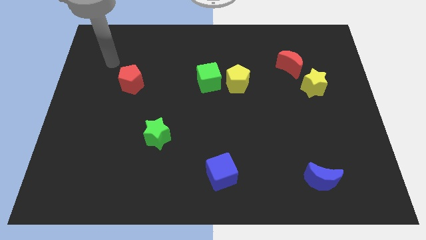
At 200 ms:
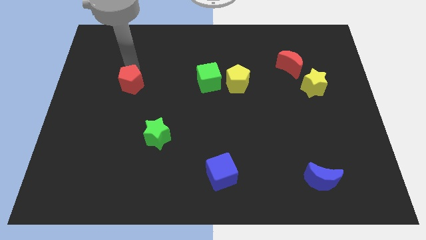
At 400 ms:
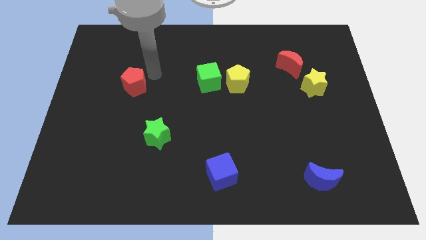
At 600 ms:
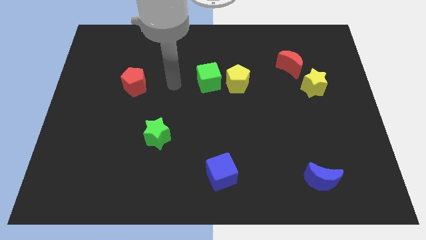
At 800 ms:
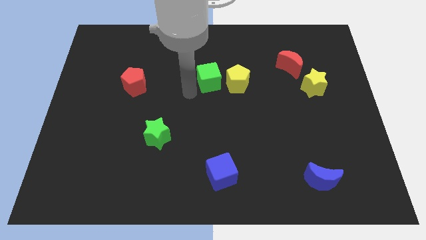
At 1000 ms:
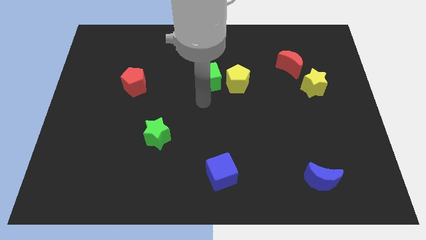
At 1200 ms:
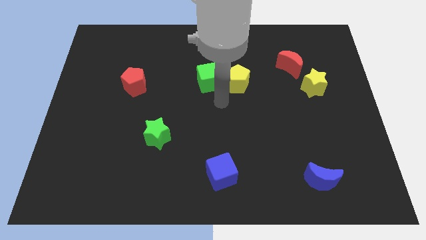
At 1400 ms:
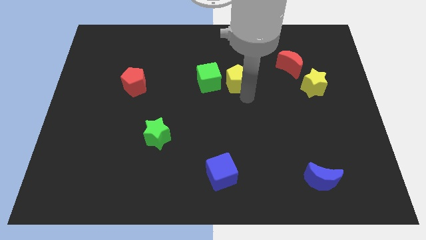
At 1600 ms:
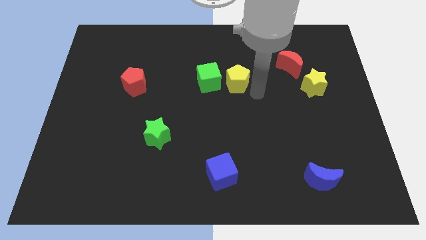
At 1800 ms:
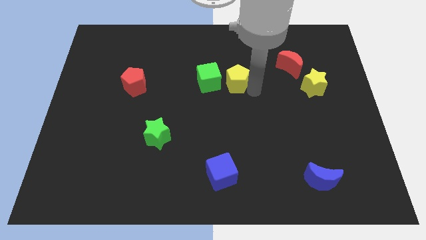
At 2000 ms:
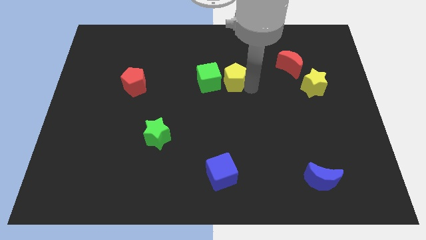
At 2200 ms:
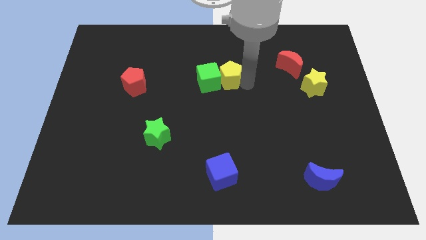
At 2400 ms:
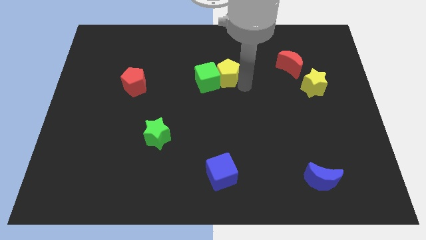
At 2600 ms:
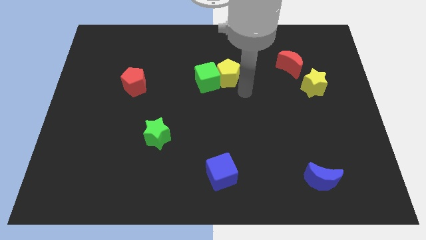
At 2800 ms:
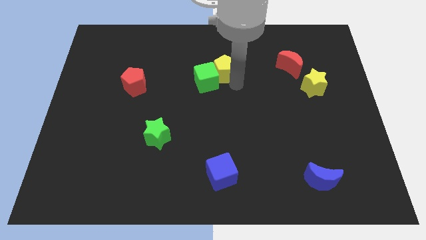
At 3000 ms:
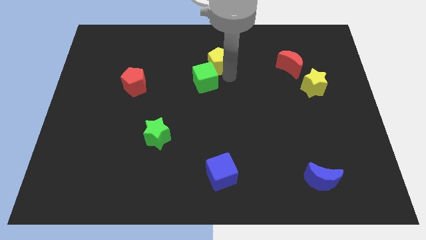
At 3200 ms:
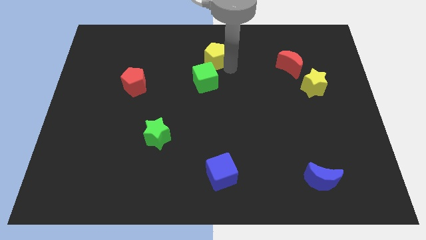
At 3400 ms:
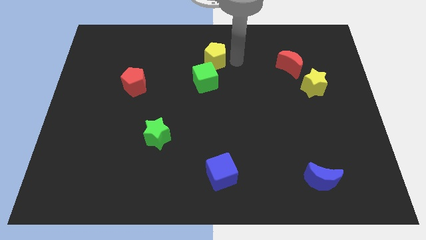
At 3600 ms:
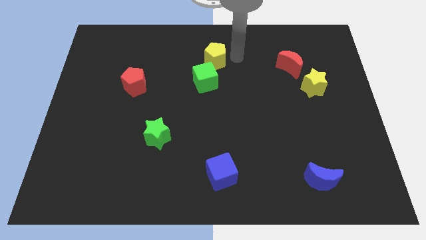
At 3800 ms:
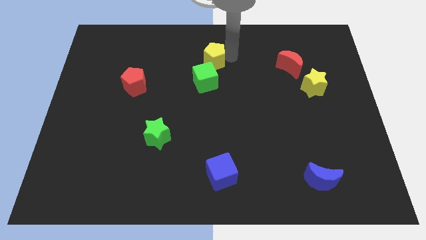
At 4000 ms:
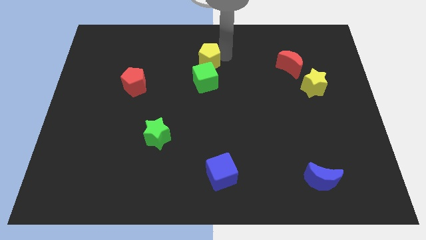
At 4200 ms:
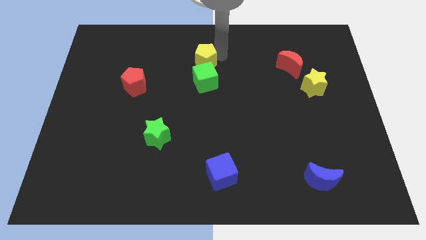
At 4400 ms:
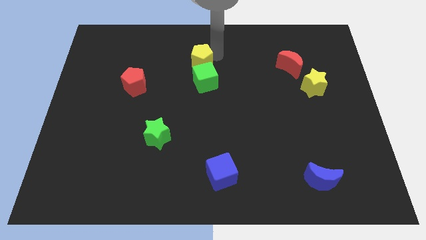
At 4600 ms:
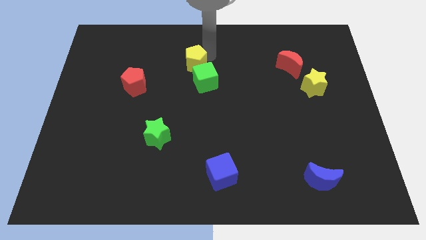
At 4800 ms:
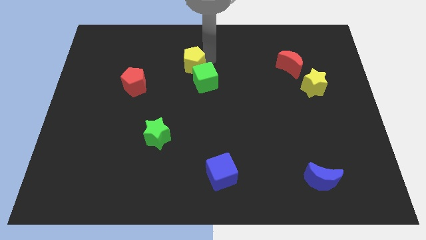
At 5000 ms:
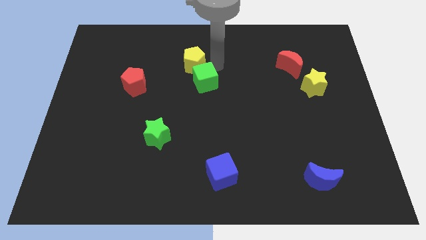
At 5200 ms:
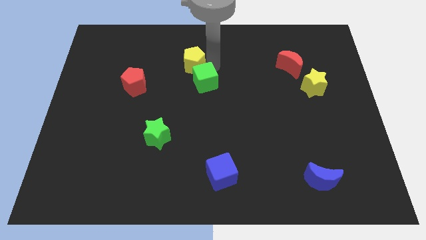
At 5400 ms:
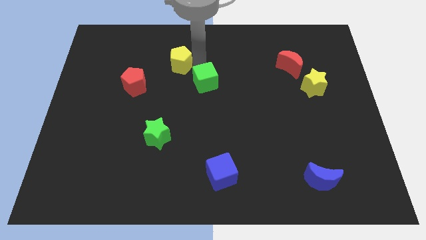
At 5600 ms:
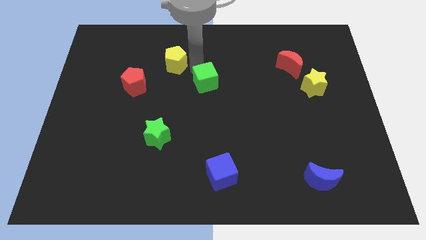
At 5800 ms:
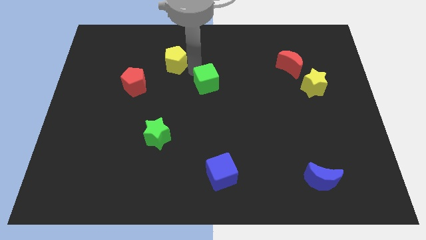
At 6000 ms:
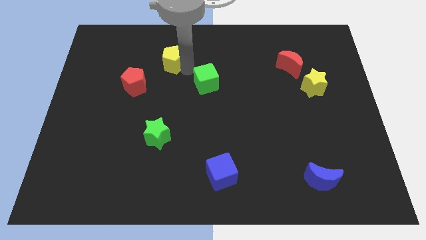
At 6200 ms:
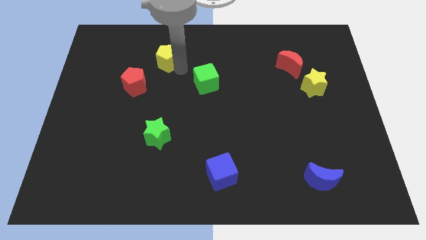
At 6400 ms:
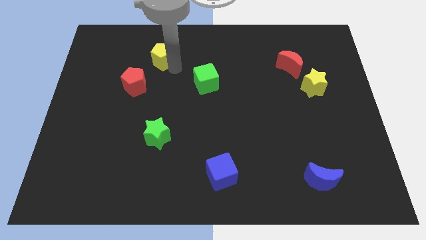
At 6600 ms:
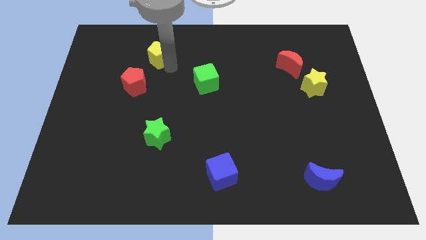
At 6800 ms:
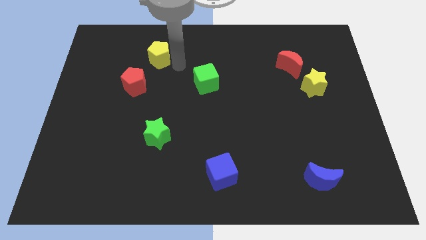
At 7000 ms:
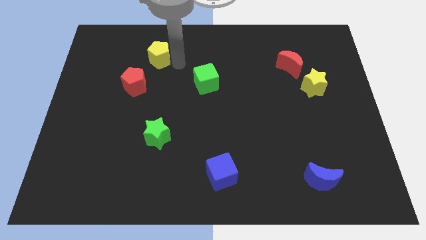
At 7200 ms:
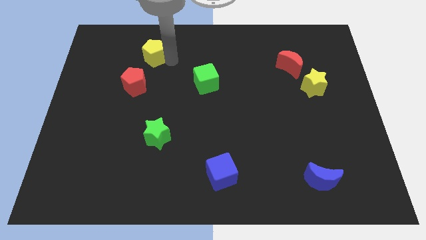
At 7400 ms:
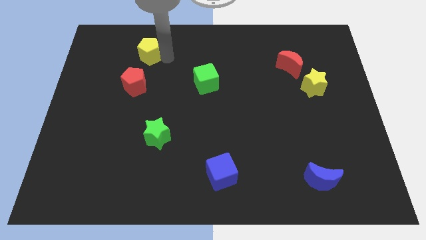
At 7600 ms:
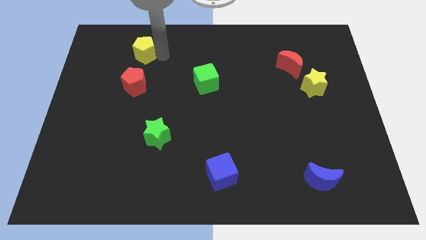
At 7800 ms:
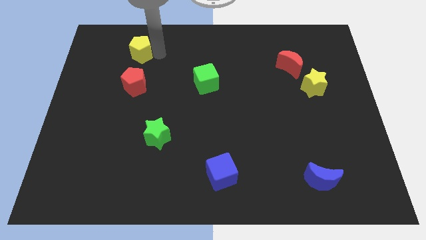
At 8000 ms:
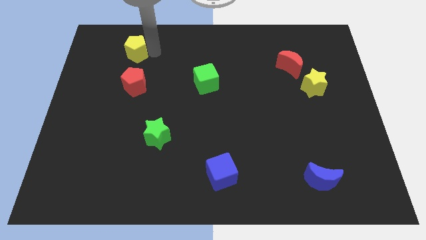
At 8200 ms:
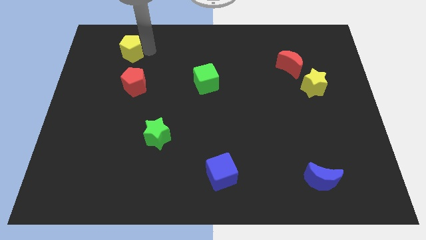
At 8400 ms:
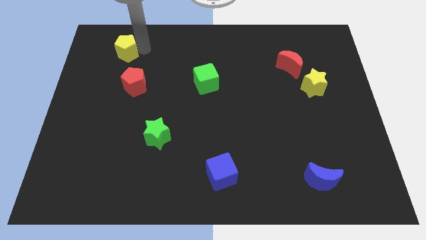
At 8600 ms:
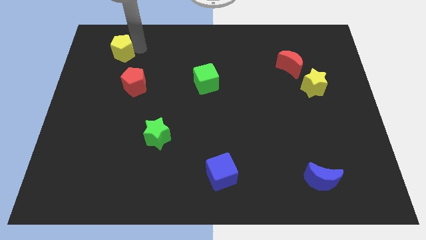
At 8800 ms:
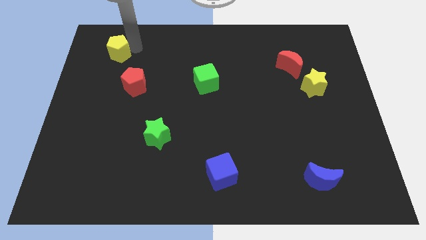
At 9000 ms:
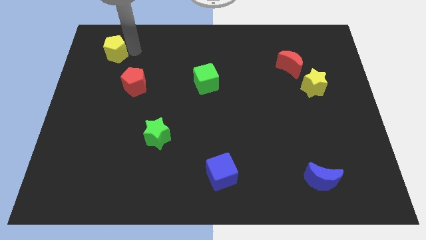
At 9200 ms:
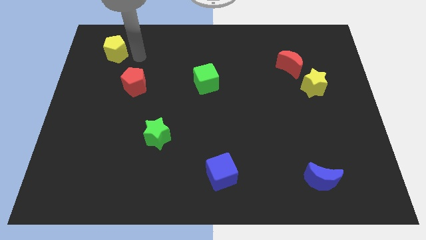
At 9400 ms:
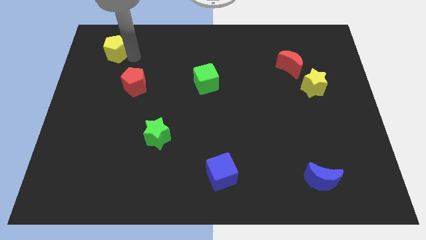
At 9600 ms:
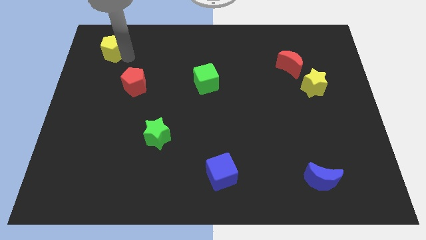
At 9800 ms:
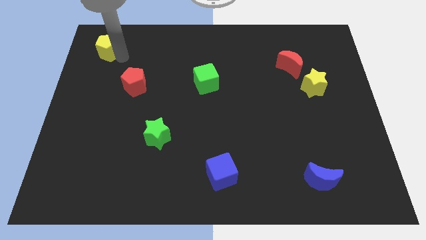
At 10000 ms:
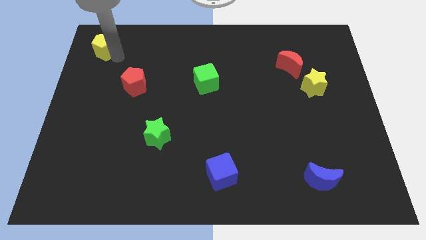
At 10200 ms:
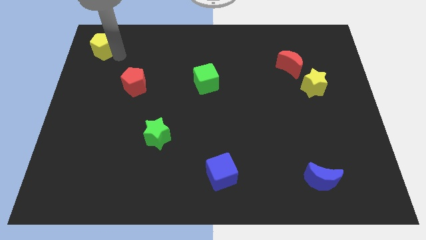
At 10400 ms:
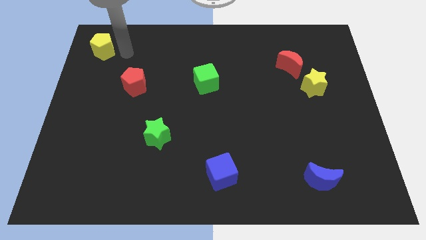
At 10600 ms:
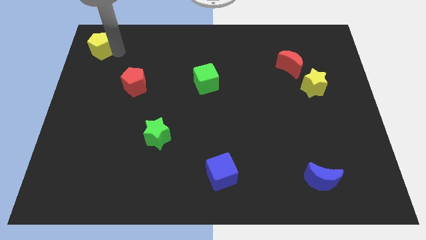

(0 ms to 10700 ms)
put the yellow pentagon to the top left

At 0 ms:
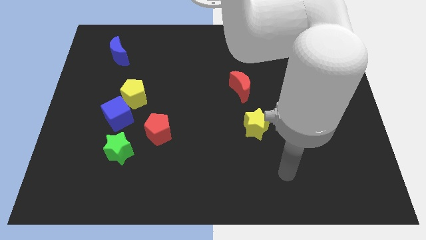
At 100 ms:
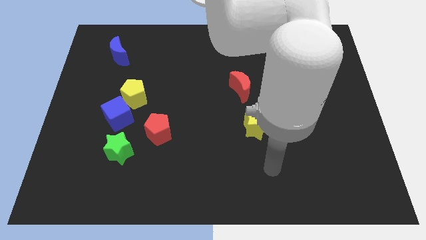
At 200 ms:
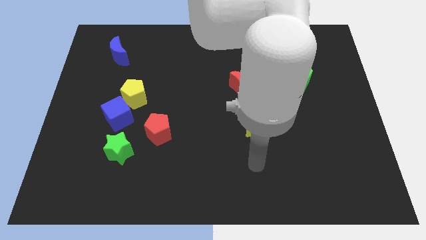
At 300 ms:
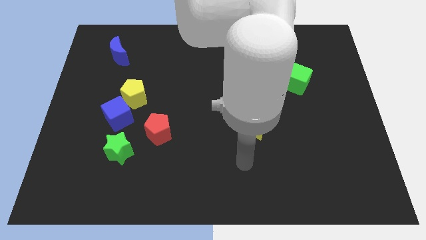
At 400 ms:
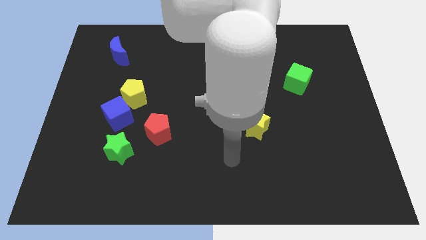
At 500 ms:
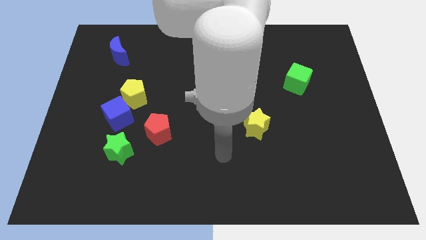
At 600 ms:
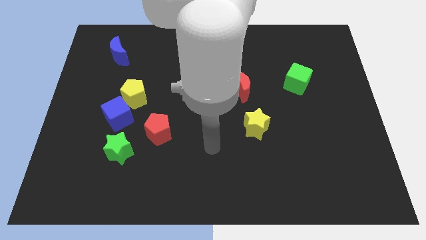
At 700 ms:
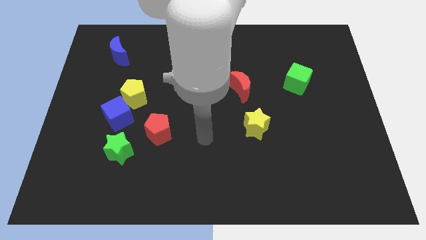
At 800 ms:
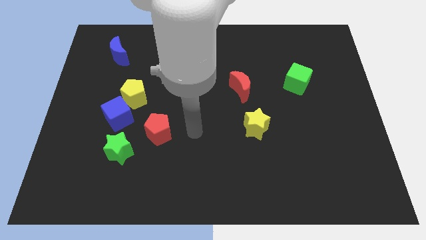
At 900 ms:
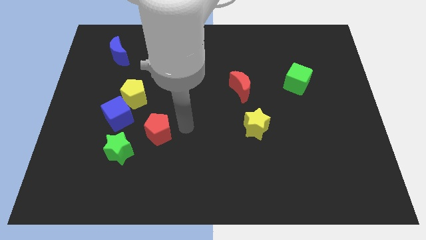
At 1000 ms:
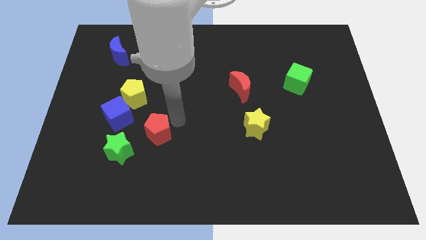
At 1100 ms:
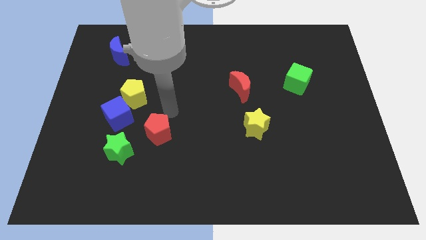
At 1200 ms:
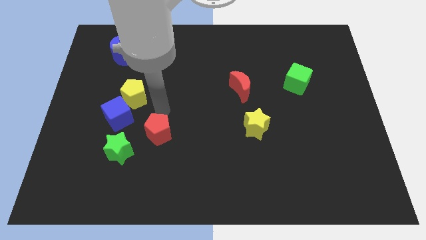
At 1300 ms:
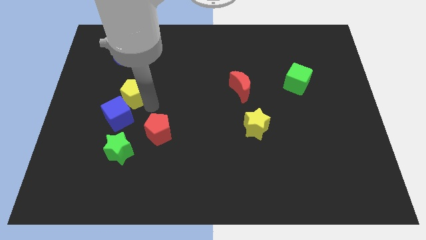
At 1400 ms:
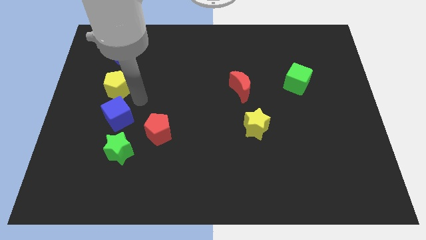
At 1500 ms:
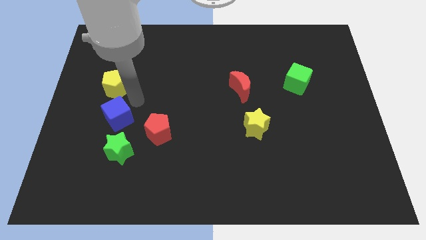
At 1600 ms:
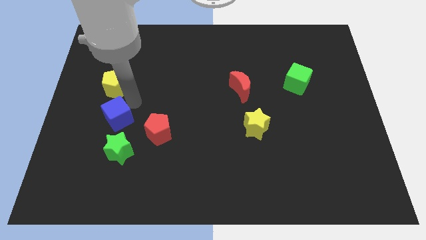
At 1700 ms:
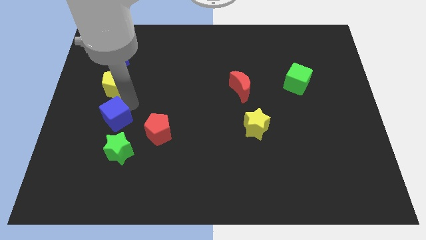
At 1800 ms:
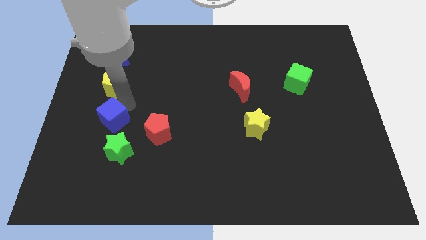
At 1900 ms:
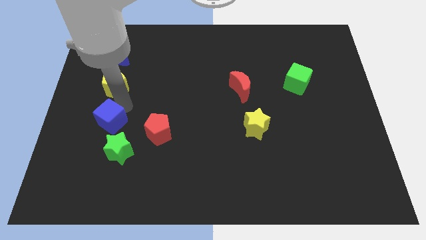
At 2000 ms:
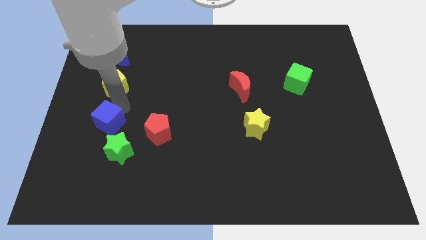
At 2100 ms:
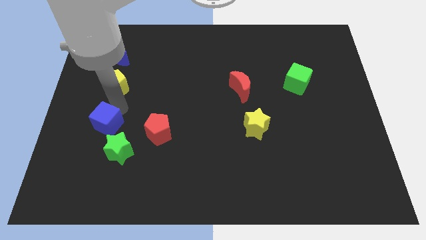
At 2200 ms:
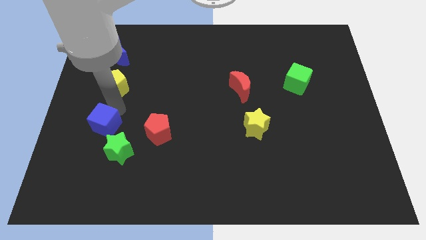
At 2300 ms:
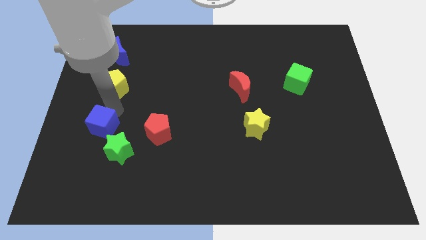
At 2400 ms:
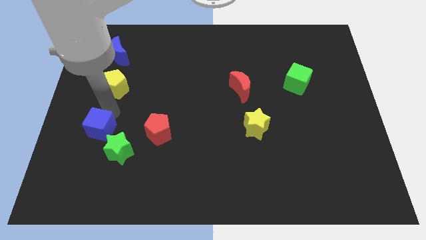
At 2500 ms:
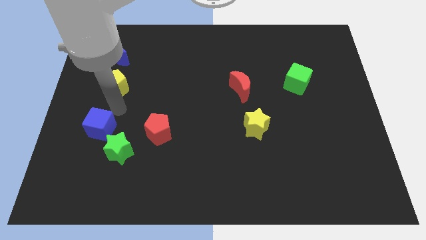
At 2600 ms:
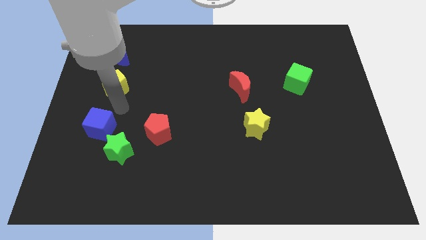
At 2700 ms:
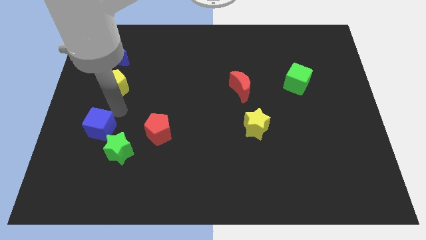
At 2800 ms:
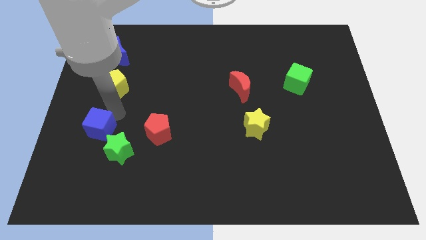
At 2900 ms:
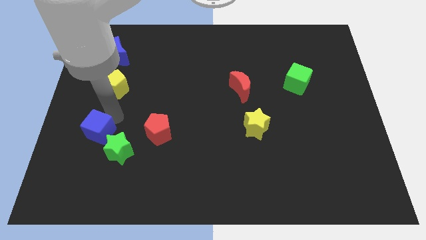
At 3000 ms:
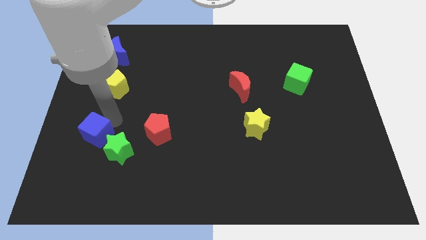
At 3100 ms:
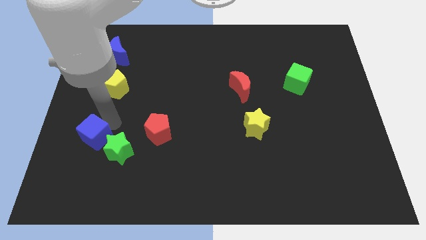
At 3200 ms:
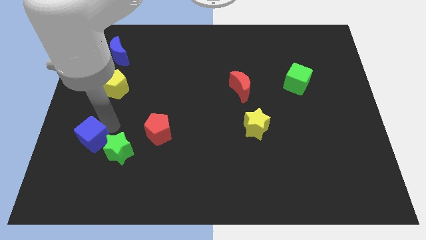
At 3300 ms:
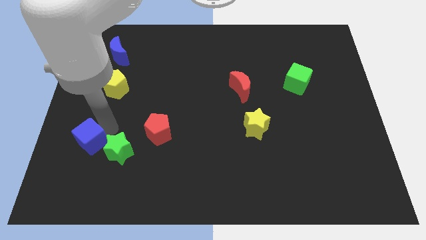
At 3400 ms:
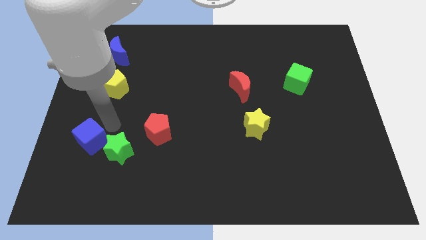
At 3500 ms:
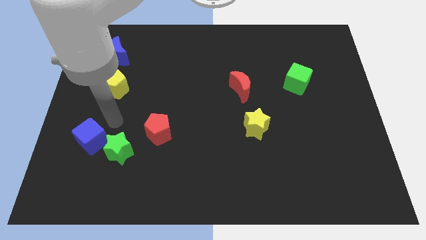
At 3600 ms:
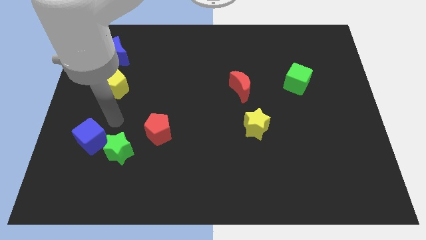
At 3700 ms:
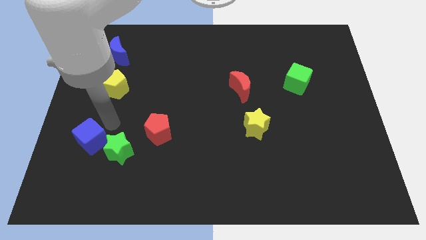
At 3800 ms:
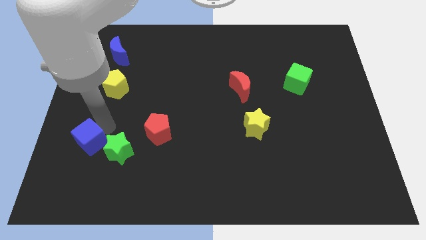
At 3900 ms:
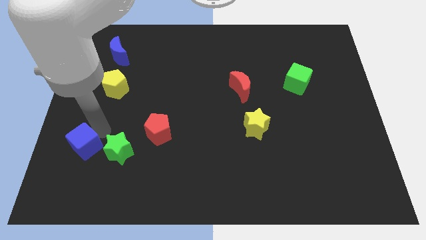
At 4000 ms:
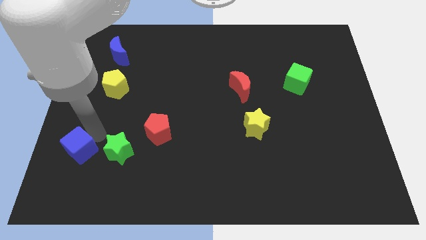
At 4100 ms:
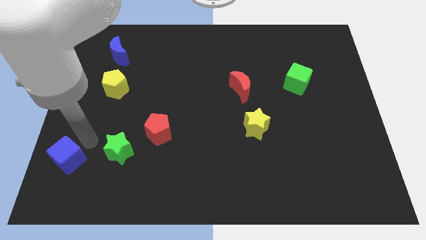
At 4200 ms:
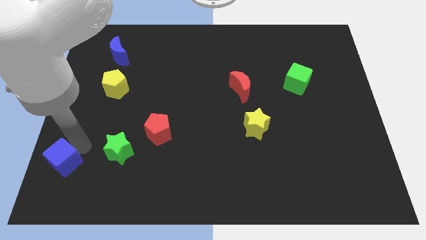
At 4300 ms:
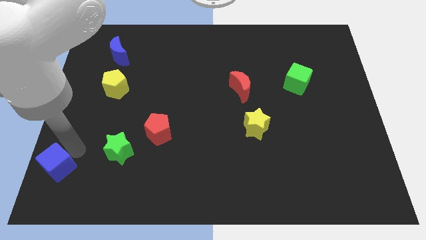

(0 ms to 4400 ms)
slide the blue cube to the bottom left of the board
